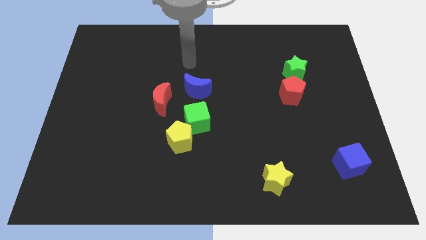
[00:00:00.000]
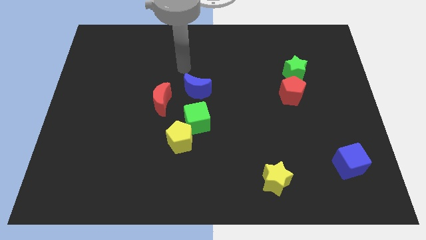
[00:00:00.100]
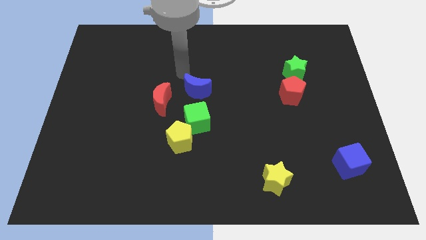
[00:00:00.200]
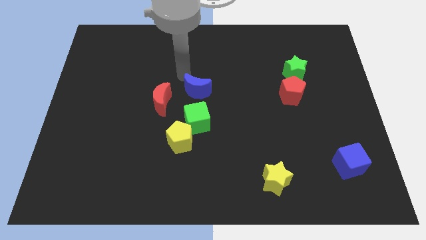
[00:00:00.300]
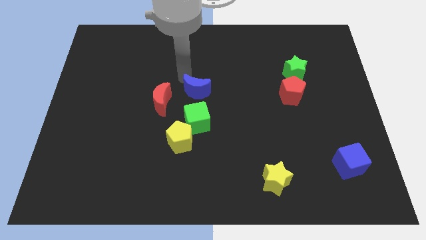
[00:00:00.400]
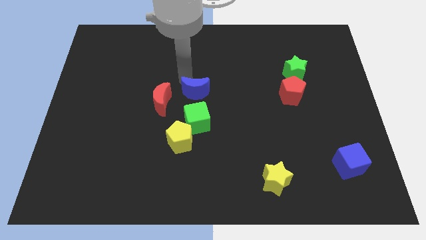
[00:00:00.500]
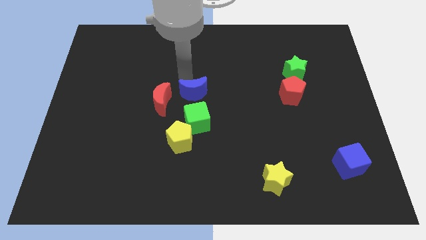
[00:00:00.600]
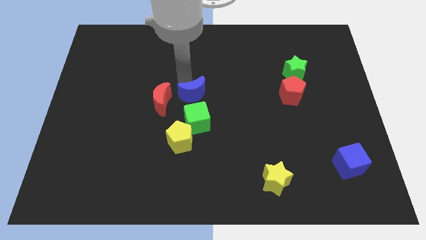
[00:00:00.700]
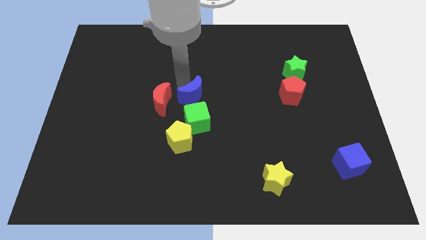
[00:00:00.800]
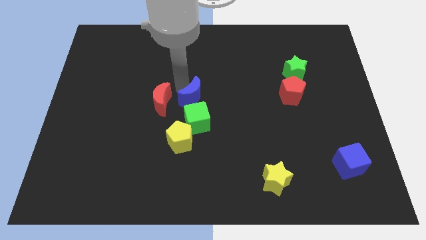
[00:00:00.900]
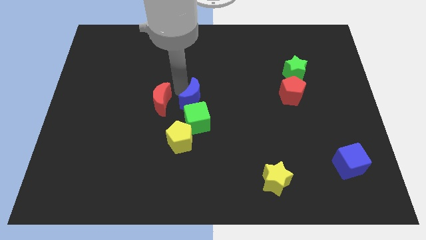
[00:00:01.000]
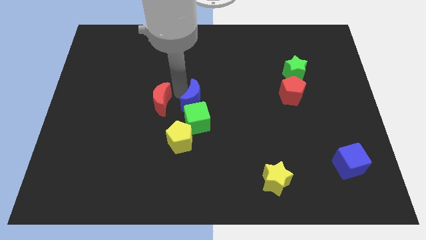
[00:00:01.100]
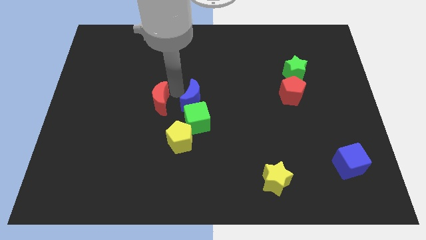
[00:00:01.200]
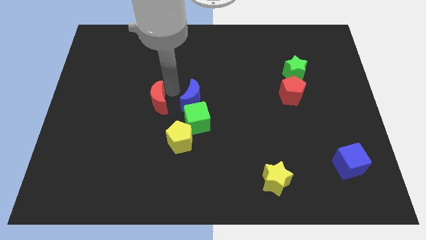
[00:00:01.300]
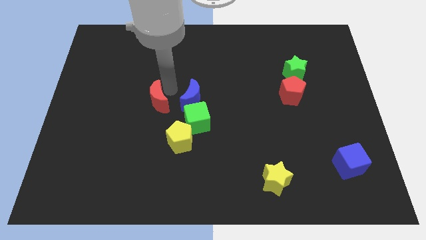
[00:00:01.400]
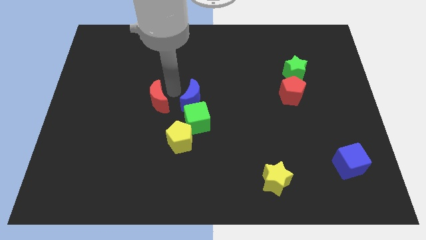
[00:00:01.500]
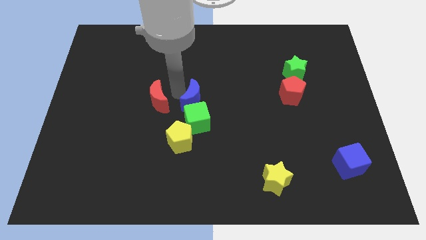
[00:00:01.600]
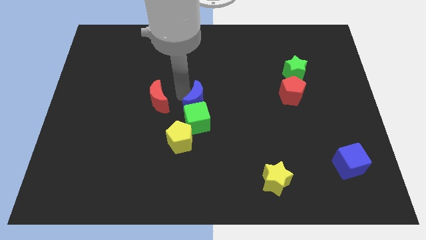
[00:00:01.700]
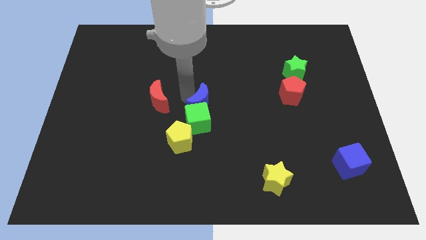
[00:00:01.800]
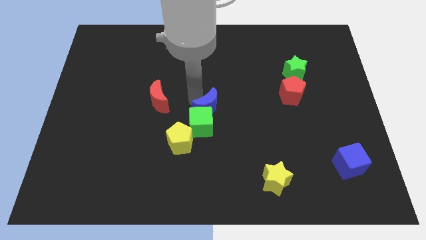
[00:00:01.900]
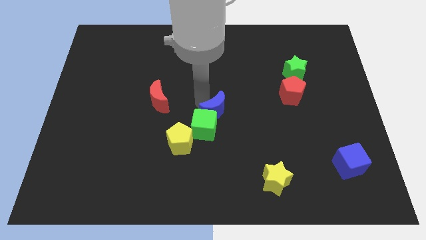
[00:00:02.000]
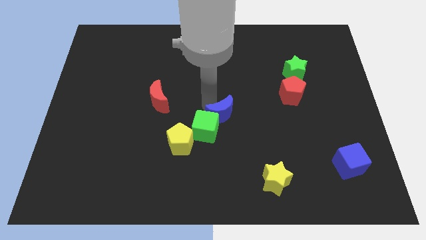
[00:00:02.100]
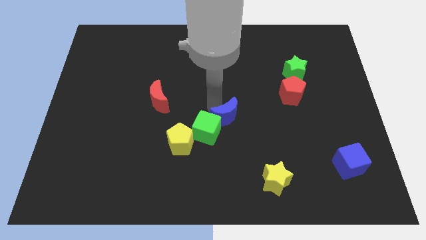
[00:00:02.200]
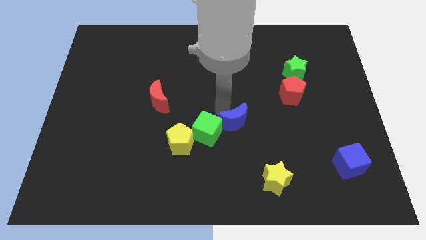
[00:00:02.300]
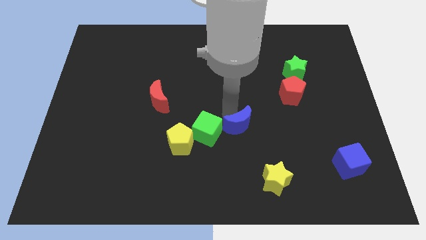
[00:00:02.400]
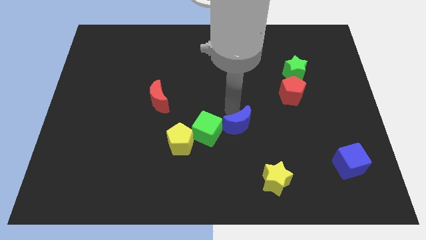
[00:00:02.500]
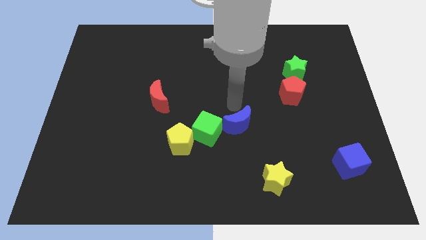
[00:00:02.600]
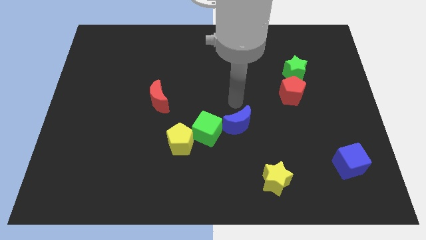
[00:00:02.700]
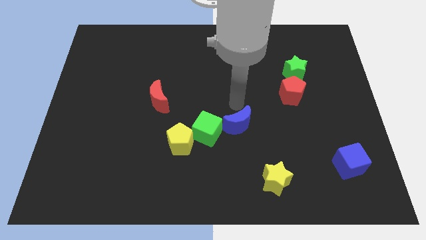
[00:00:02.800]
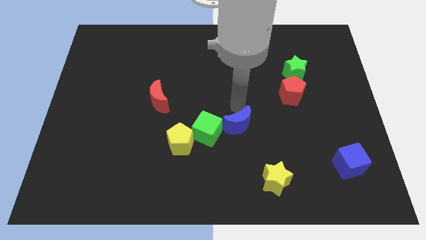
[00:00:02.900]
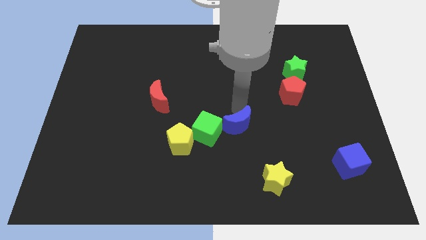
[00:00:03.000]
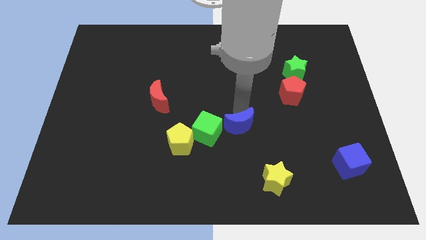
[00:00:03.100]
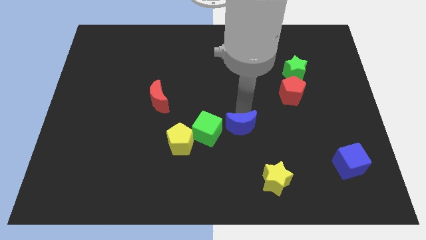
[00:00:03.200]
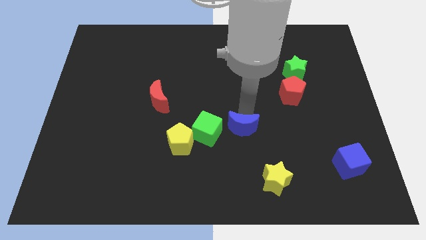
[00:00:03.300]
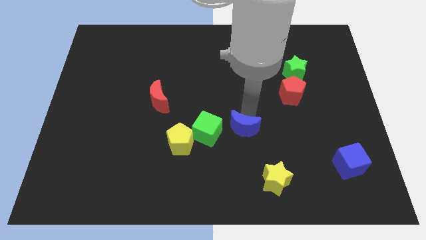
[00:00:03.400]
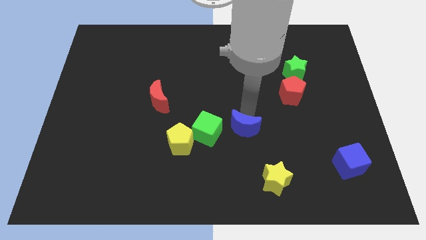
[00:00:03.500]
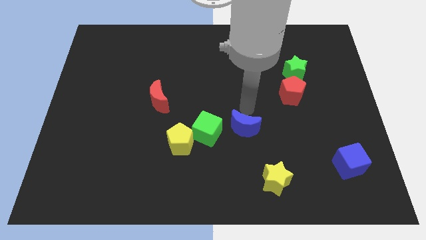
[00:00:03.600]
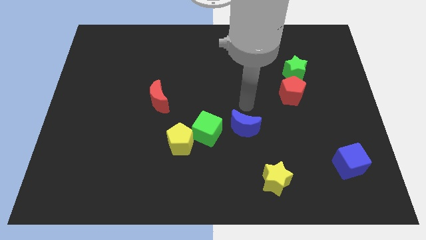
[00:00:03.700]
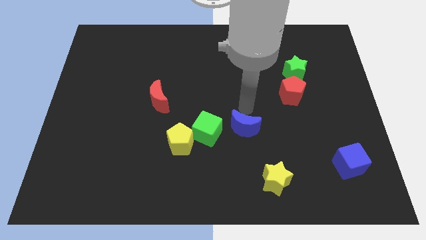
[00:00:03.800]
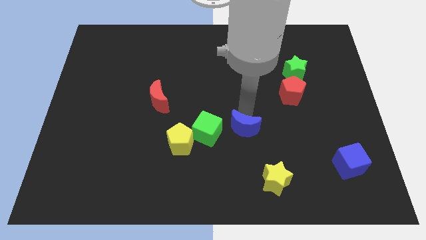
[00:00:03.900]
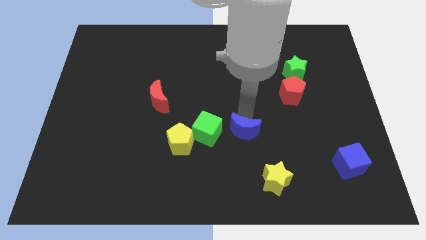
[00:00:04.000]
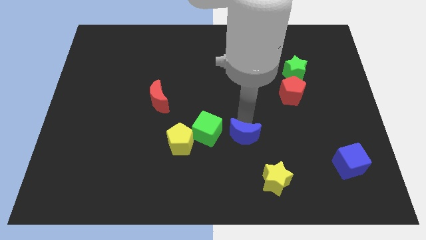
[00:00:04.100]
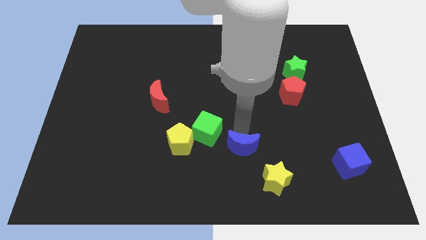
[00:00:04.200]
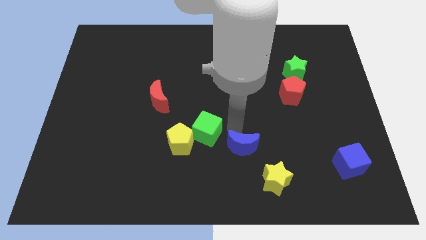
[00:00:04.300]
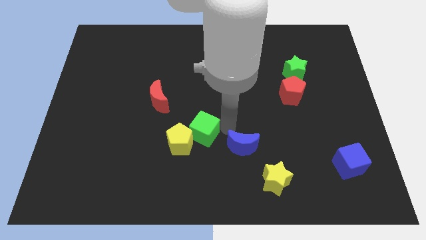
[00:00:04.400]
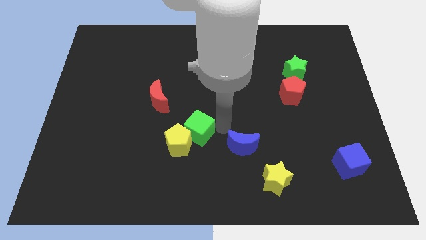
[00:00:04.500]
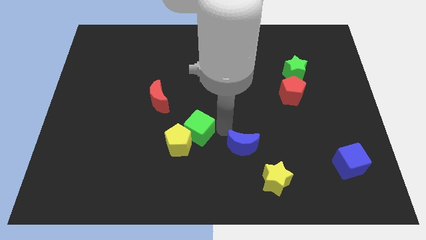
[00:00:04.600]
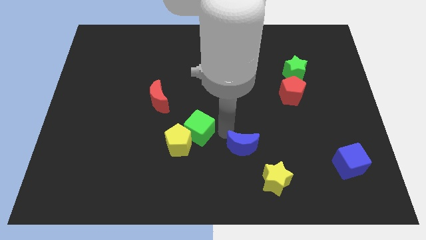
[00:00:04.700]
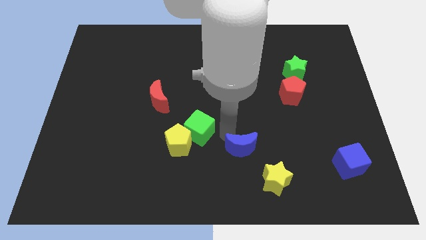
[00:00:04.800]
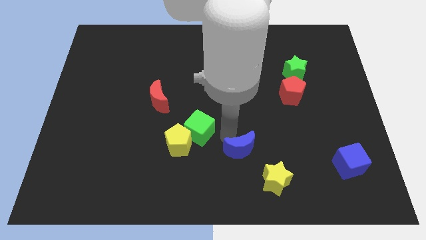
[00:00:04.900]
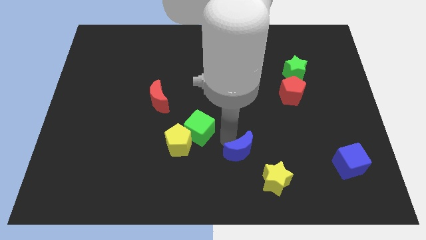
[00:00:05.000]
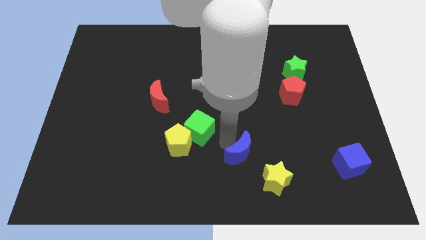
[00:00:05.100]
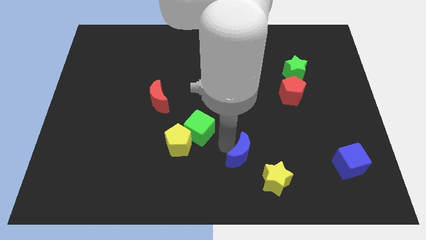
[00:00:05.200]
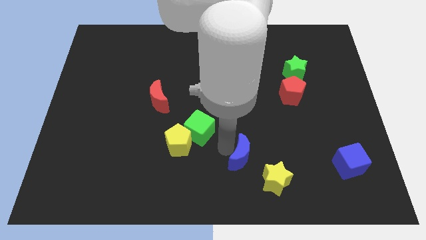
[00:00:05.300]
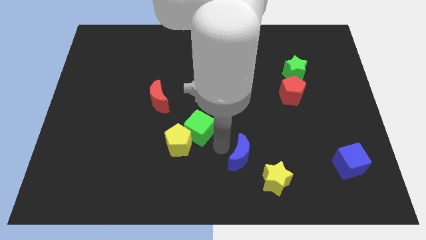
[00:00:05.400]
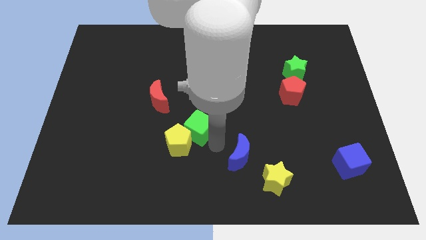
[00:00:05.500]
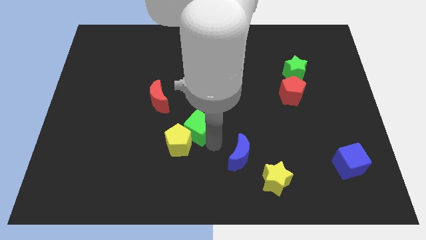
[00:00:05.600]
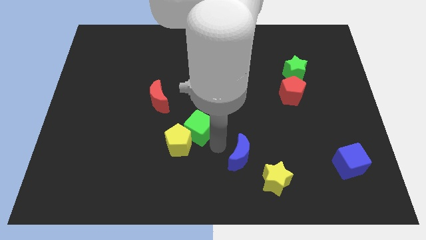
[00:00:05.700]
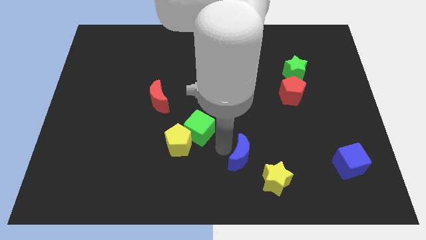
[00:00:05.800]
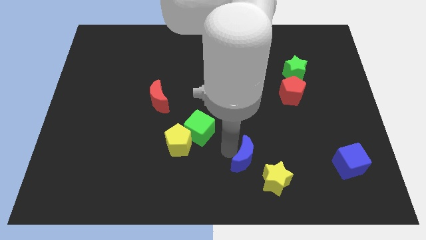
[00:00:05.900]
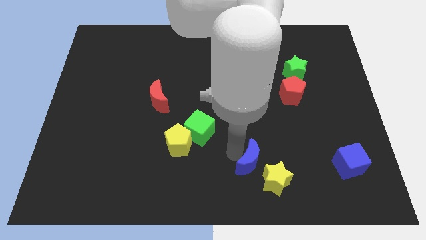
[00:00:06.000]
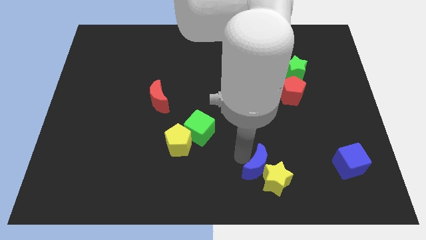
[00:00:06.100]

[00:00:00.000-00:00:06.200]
push the blue moon to the yellow star

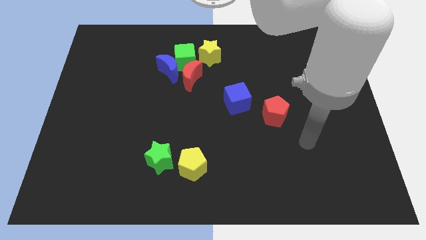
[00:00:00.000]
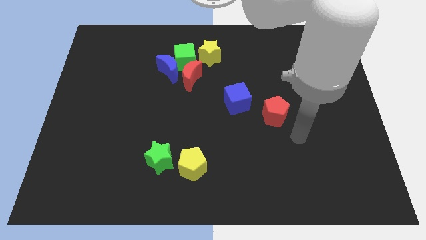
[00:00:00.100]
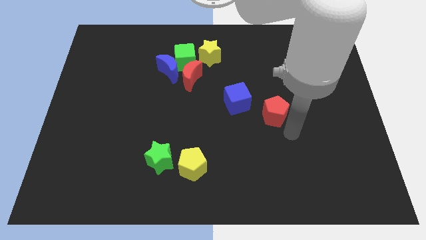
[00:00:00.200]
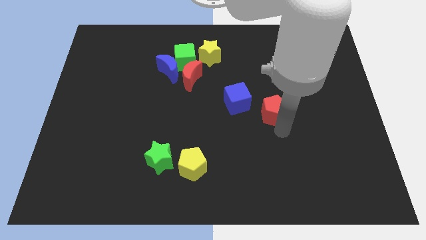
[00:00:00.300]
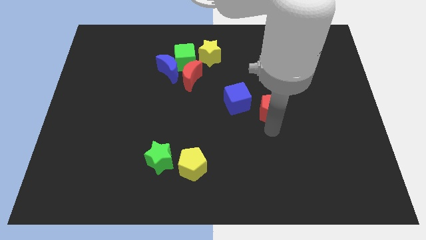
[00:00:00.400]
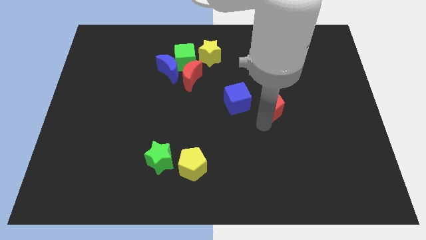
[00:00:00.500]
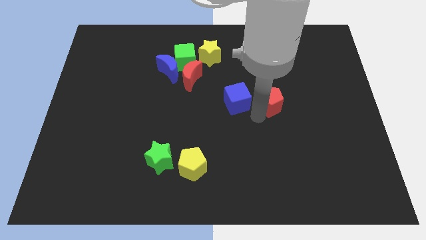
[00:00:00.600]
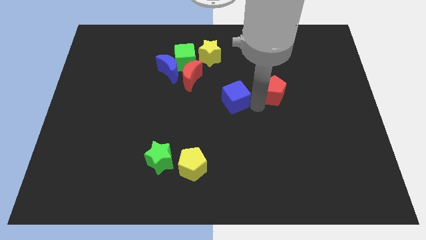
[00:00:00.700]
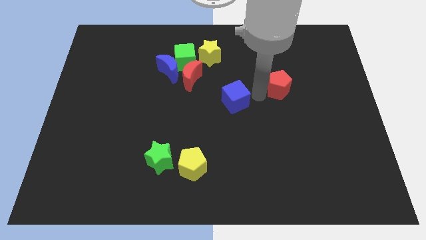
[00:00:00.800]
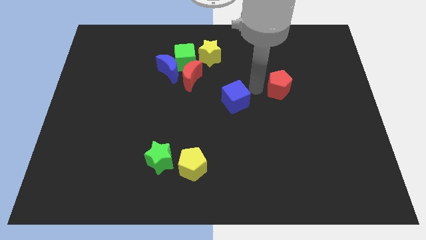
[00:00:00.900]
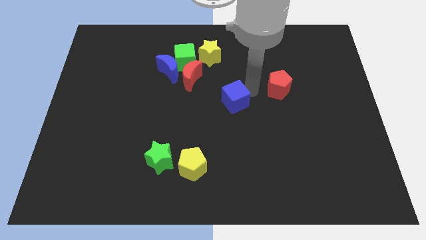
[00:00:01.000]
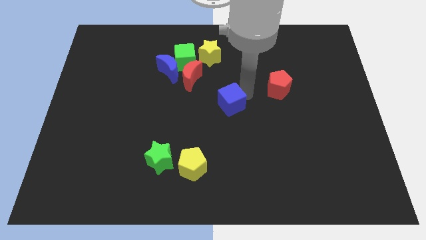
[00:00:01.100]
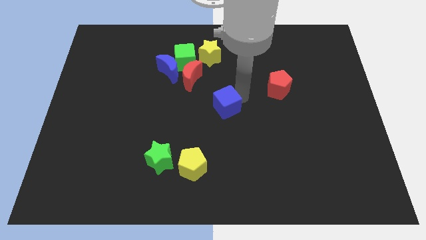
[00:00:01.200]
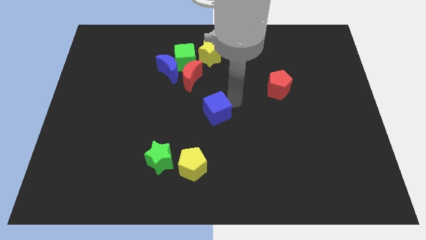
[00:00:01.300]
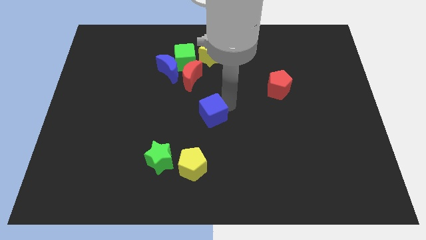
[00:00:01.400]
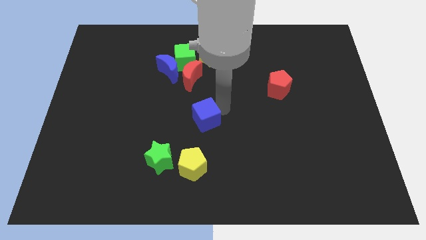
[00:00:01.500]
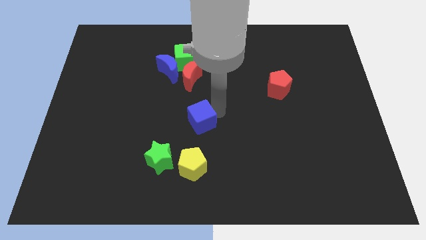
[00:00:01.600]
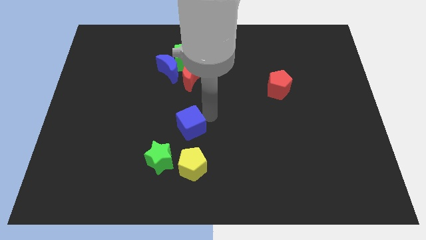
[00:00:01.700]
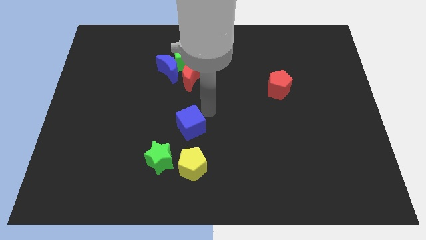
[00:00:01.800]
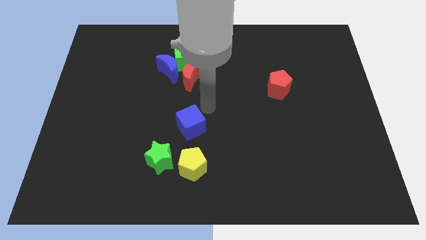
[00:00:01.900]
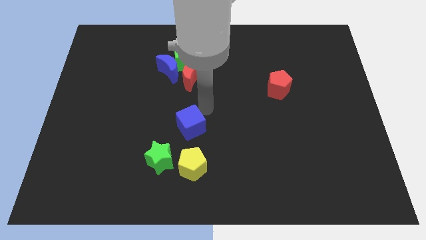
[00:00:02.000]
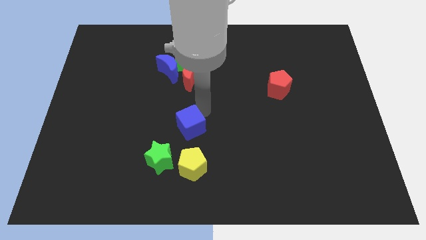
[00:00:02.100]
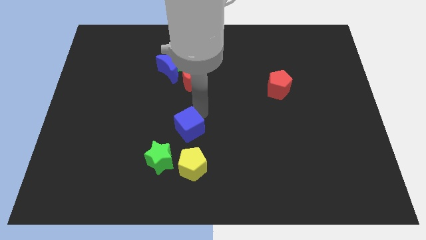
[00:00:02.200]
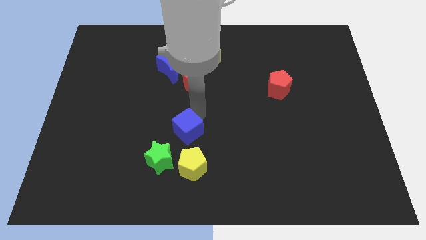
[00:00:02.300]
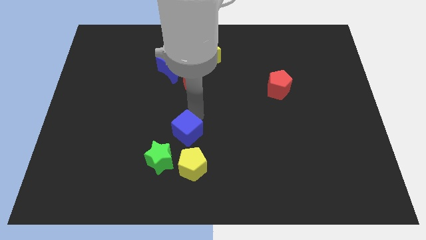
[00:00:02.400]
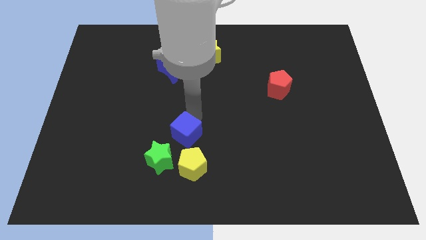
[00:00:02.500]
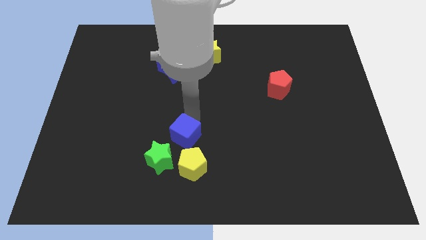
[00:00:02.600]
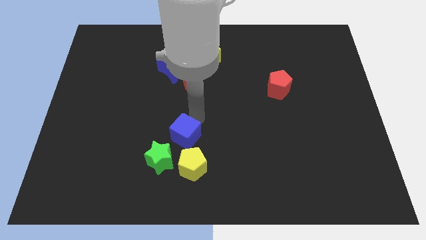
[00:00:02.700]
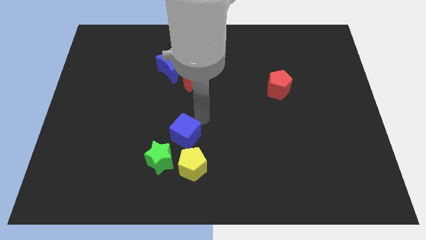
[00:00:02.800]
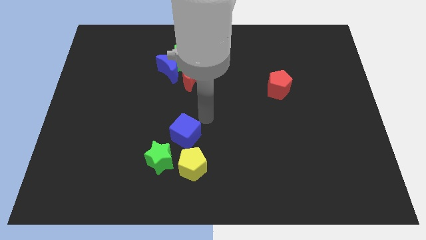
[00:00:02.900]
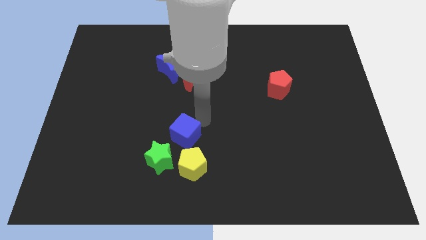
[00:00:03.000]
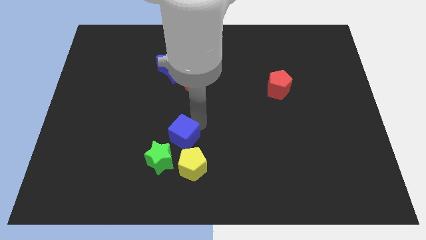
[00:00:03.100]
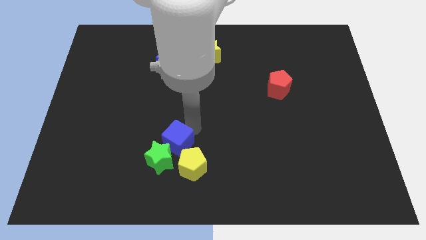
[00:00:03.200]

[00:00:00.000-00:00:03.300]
put the blue cube to the green star
